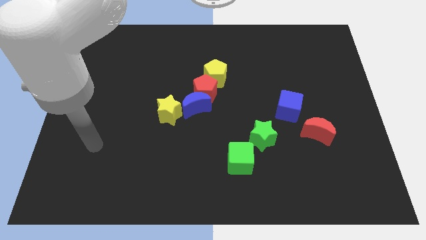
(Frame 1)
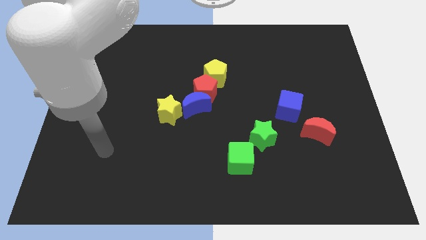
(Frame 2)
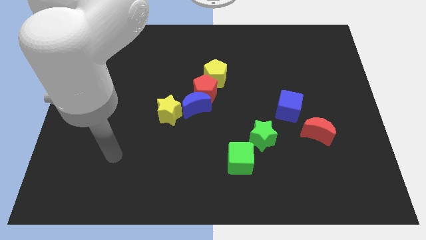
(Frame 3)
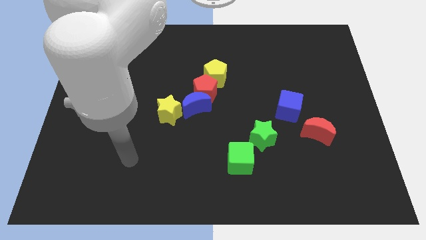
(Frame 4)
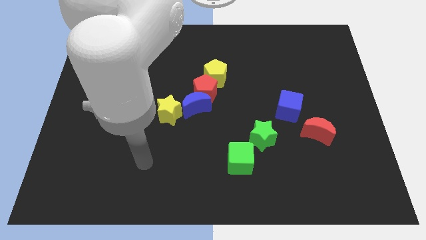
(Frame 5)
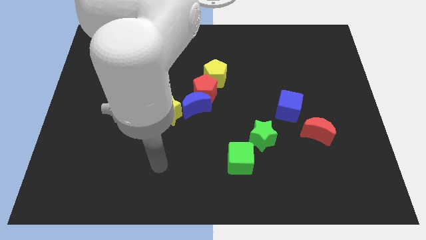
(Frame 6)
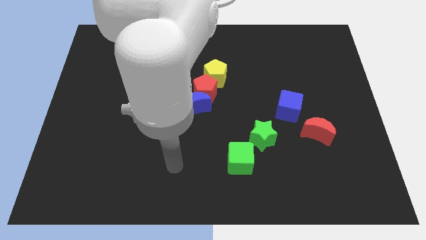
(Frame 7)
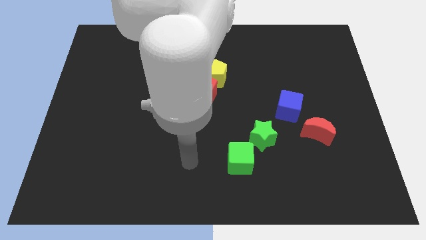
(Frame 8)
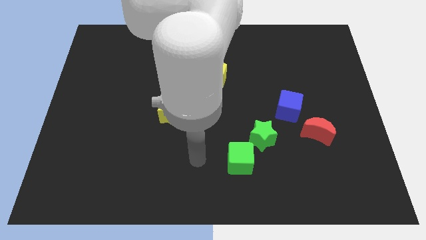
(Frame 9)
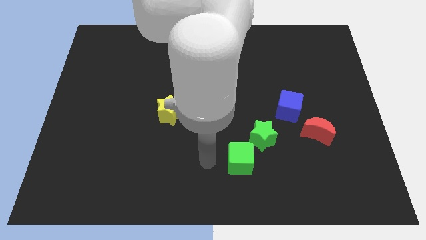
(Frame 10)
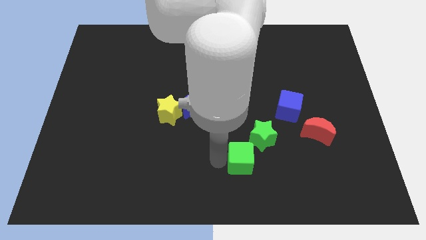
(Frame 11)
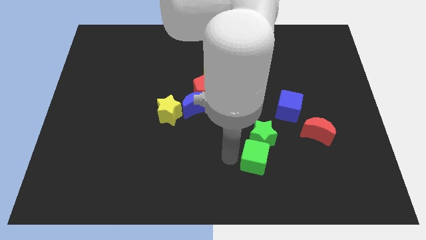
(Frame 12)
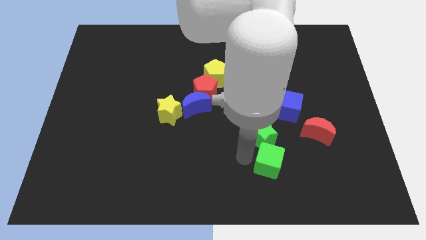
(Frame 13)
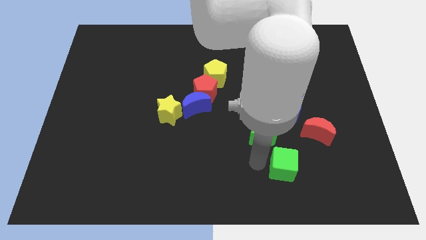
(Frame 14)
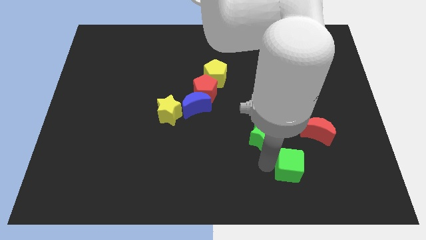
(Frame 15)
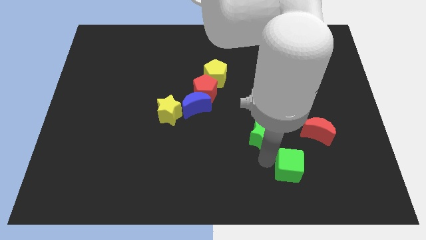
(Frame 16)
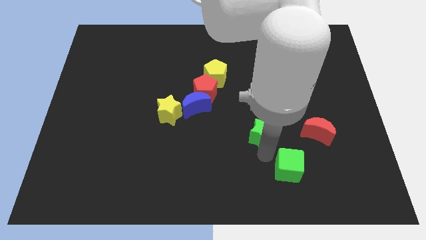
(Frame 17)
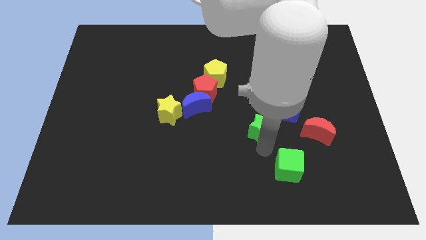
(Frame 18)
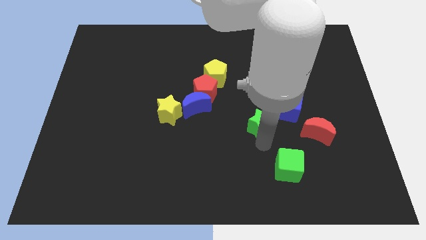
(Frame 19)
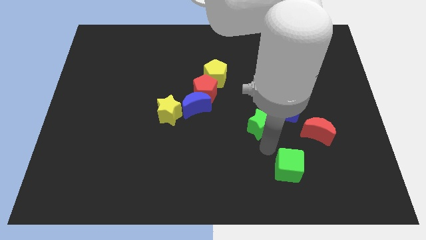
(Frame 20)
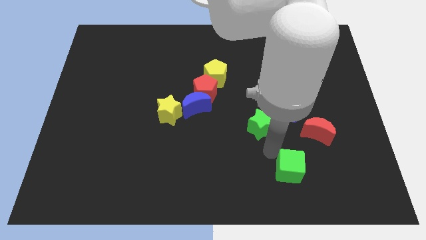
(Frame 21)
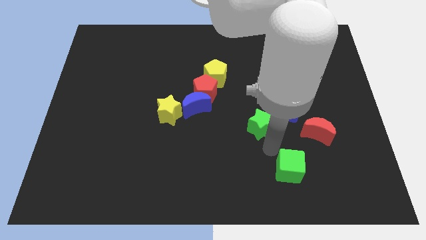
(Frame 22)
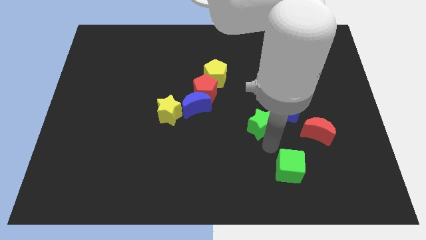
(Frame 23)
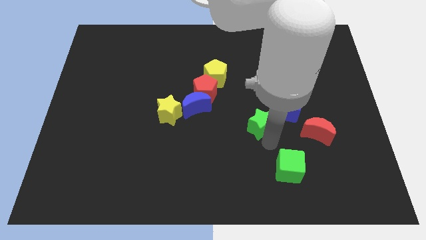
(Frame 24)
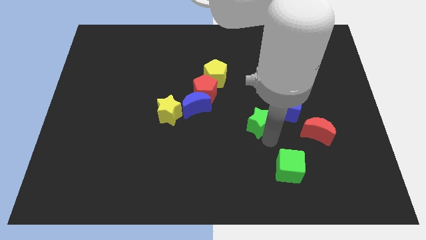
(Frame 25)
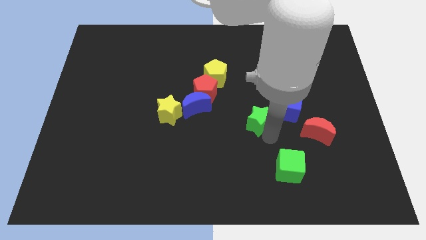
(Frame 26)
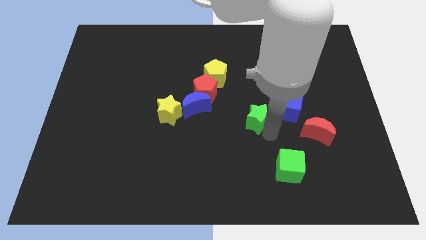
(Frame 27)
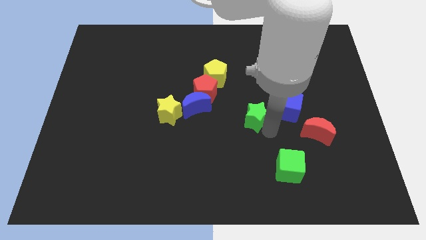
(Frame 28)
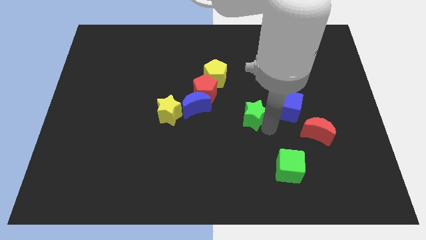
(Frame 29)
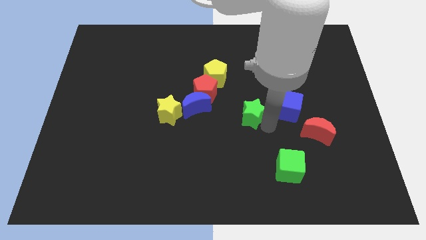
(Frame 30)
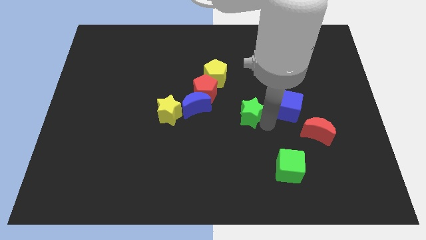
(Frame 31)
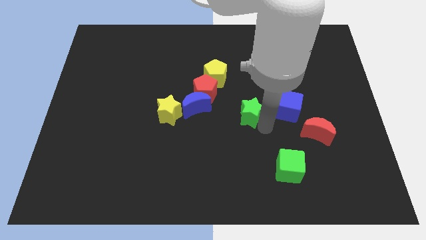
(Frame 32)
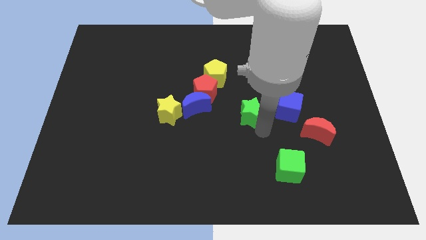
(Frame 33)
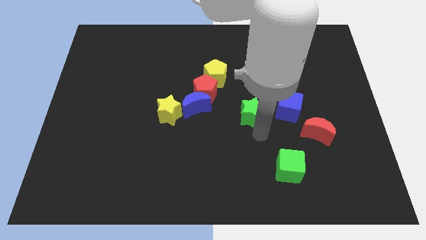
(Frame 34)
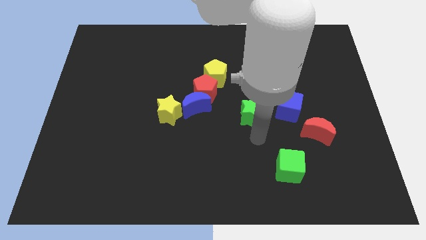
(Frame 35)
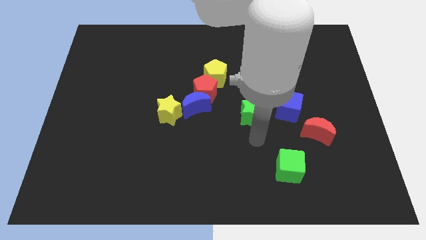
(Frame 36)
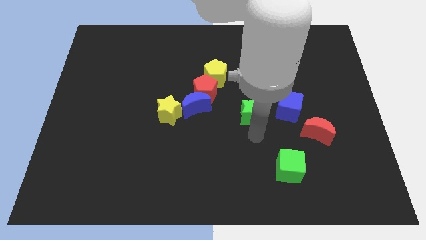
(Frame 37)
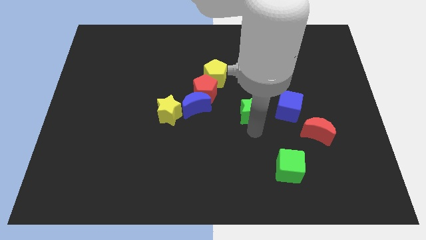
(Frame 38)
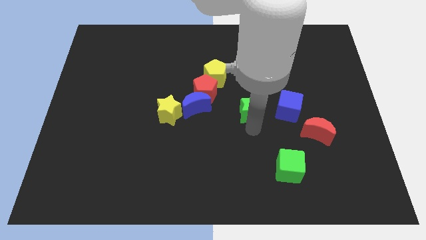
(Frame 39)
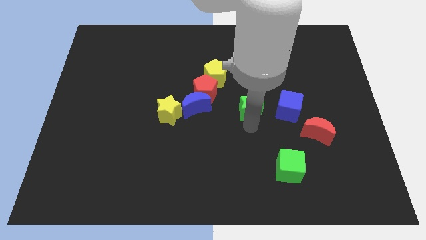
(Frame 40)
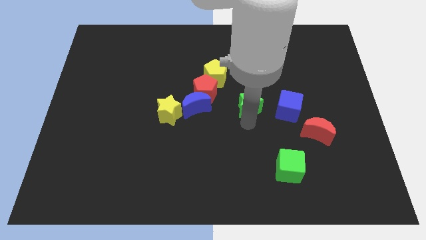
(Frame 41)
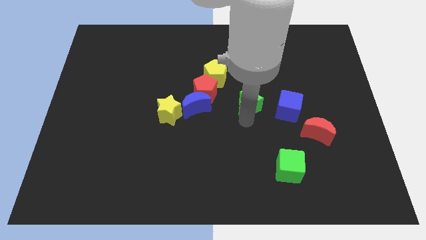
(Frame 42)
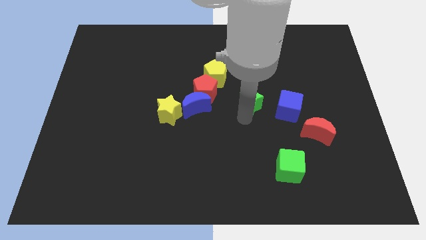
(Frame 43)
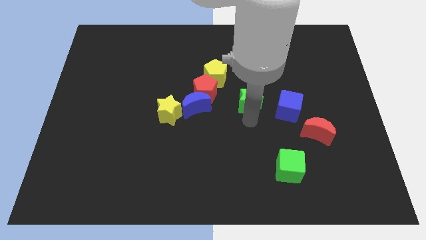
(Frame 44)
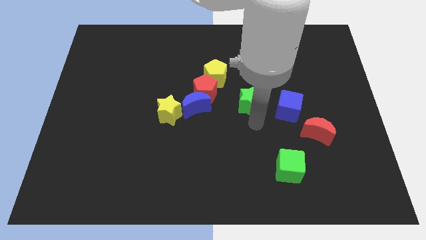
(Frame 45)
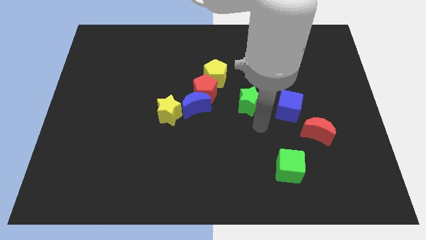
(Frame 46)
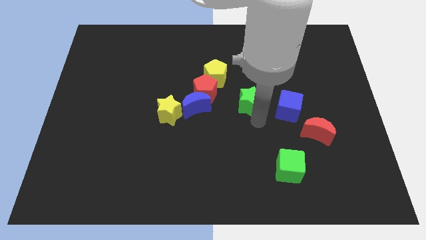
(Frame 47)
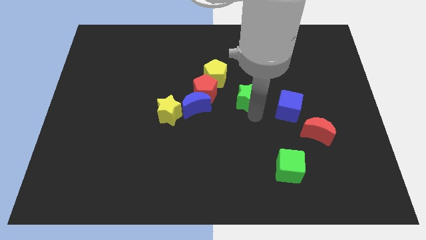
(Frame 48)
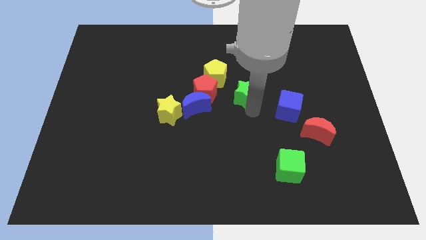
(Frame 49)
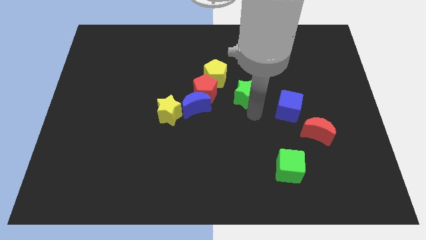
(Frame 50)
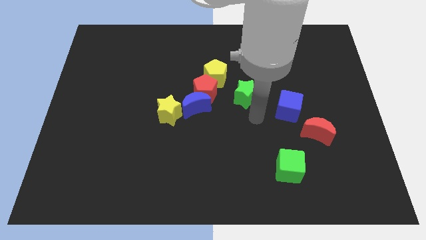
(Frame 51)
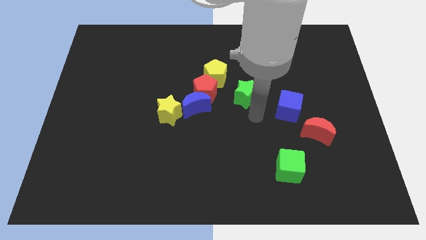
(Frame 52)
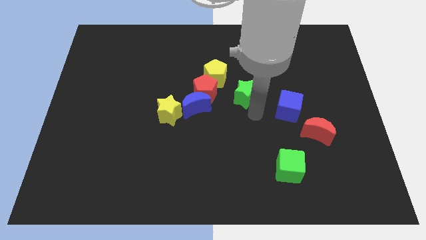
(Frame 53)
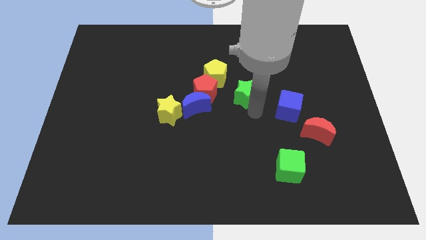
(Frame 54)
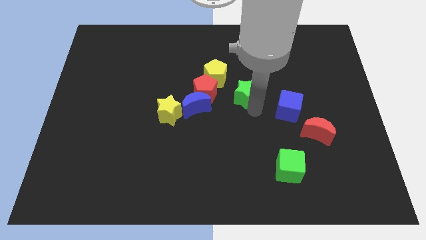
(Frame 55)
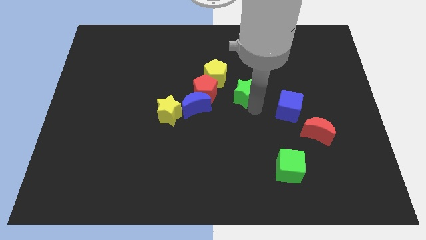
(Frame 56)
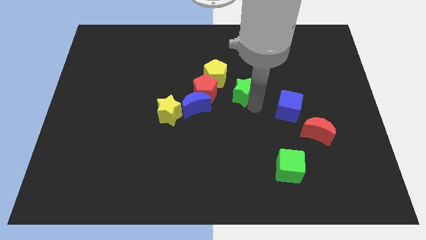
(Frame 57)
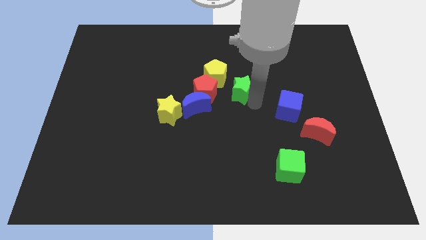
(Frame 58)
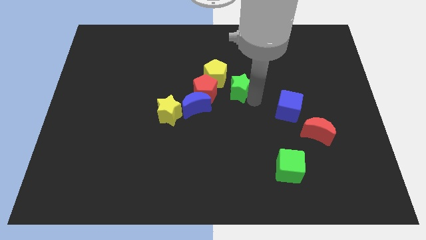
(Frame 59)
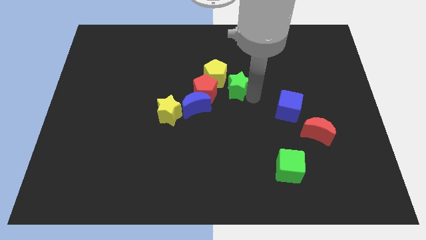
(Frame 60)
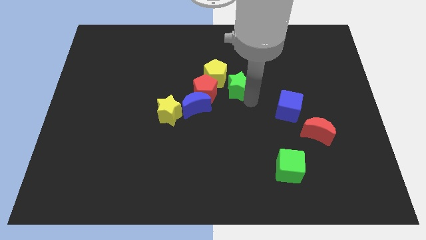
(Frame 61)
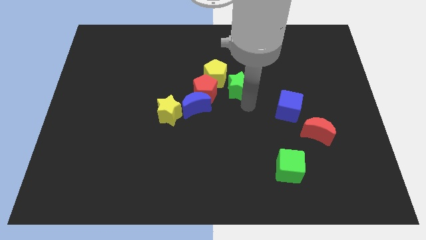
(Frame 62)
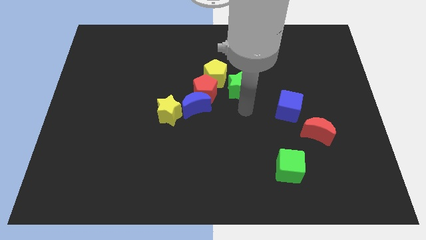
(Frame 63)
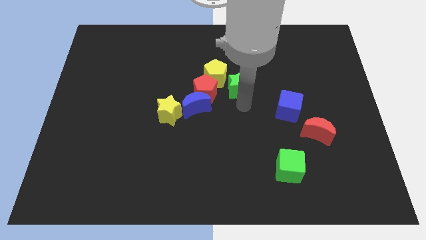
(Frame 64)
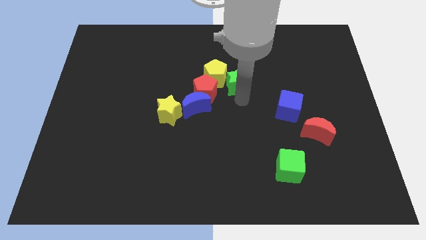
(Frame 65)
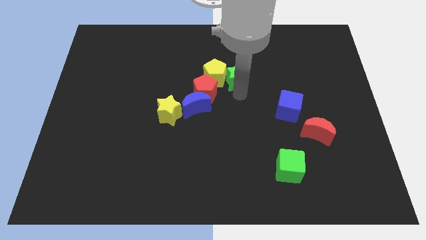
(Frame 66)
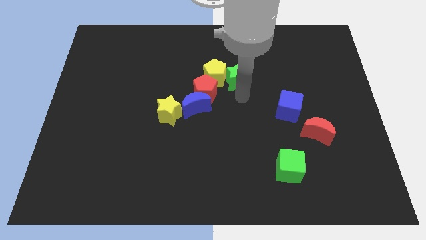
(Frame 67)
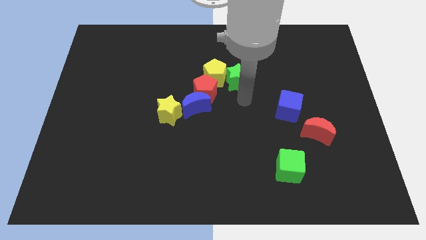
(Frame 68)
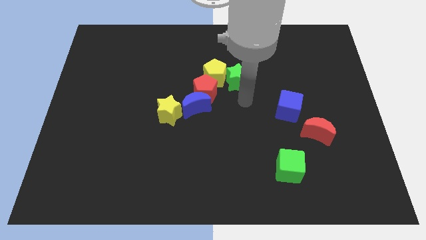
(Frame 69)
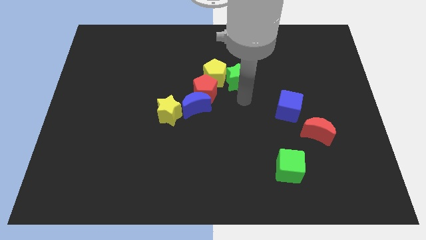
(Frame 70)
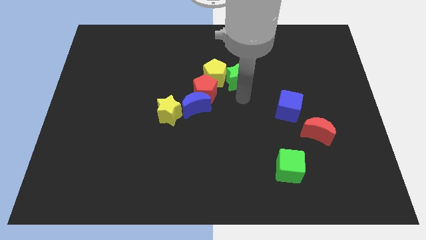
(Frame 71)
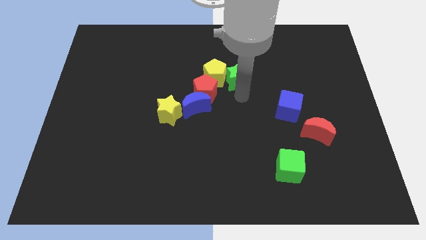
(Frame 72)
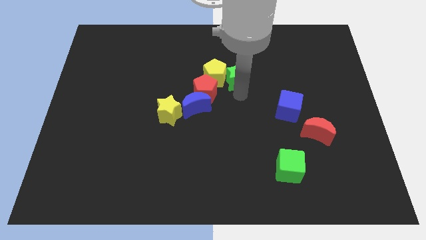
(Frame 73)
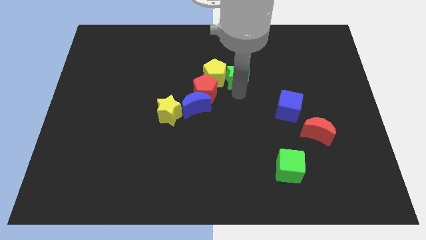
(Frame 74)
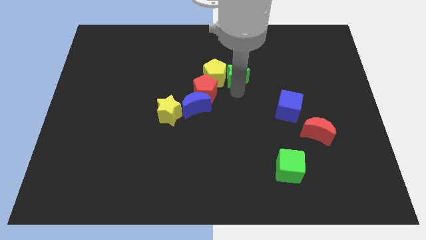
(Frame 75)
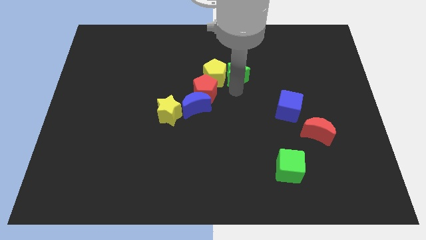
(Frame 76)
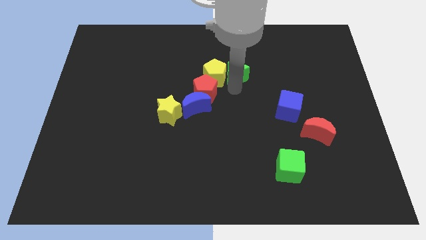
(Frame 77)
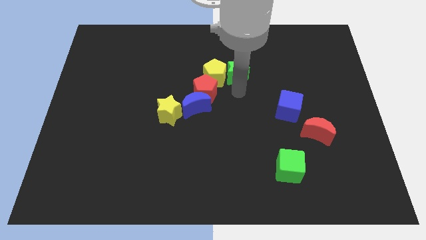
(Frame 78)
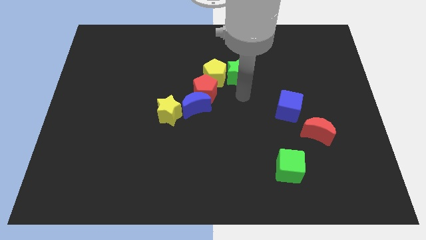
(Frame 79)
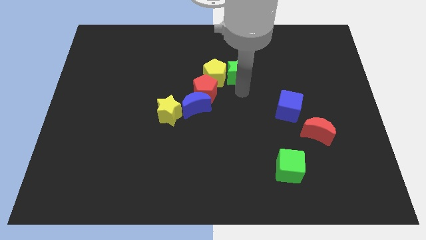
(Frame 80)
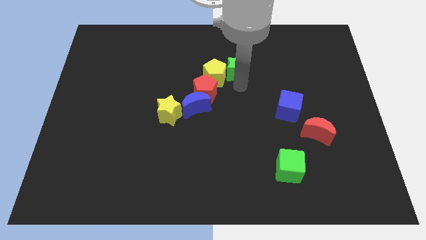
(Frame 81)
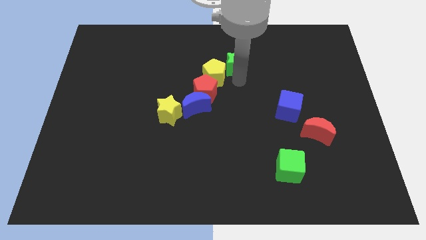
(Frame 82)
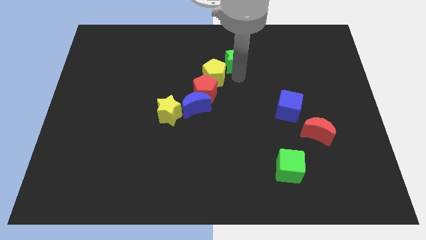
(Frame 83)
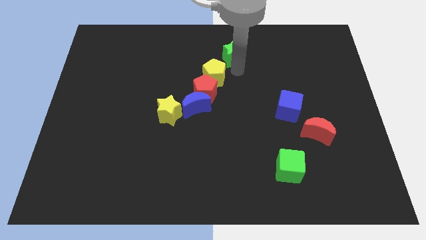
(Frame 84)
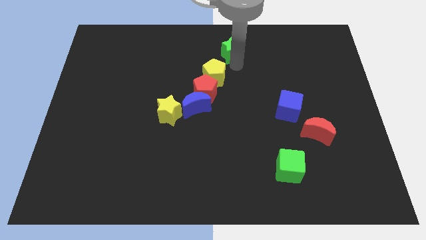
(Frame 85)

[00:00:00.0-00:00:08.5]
move the green star to the top
